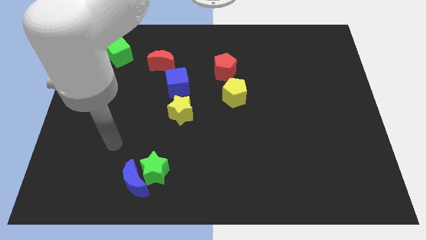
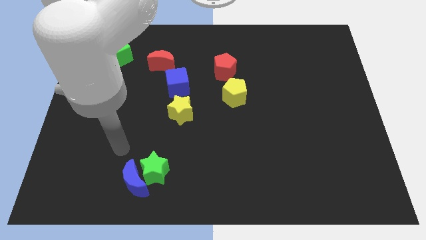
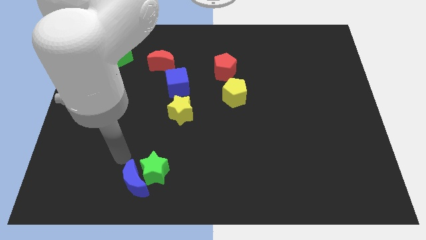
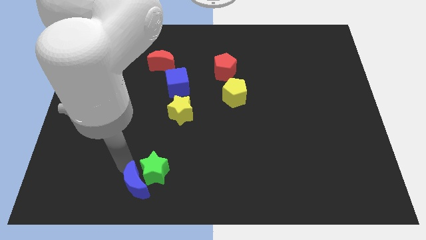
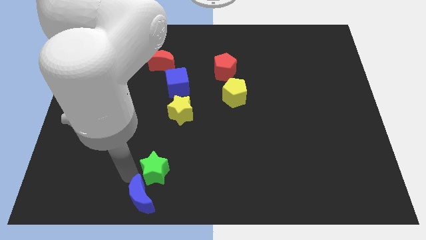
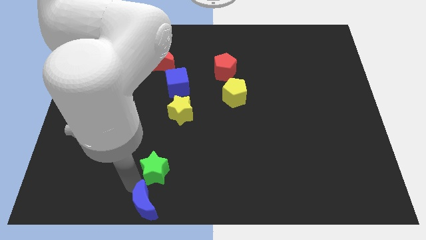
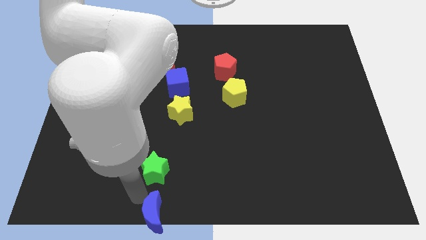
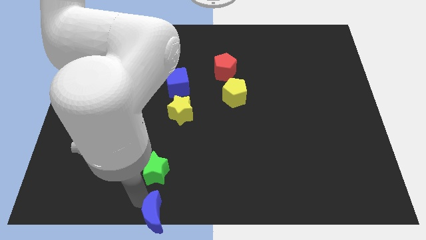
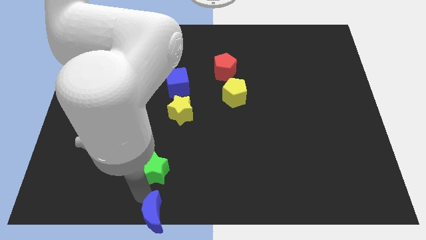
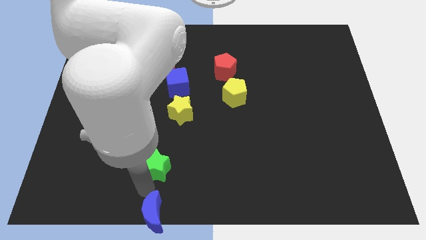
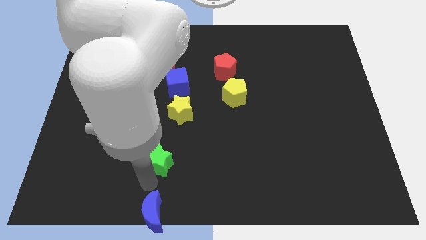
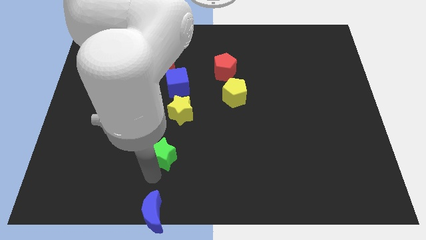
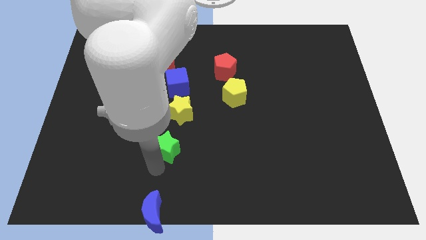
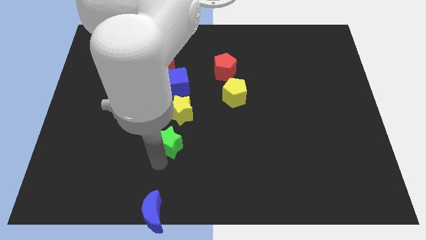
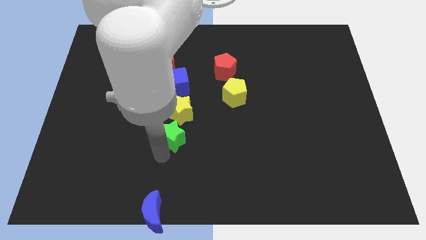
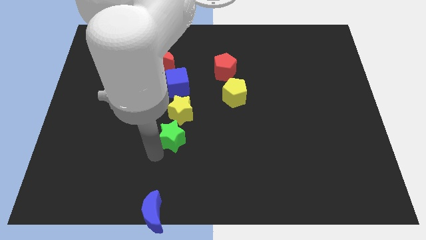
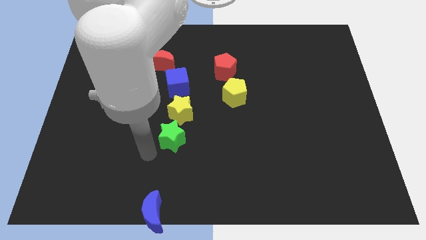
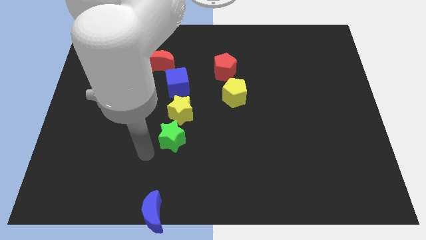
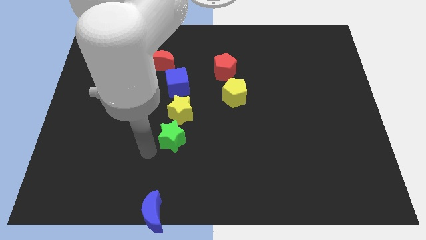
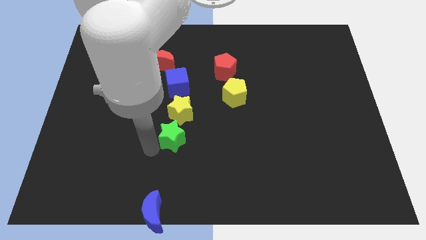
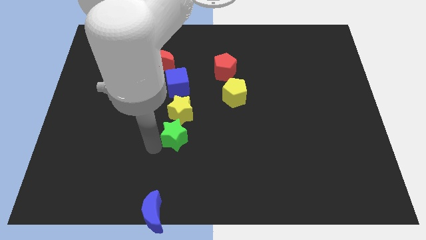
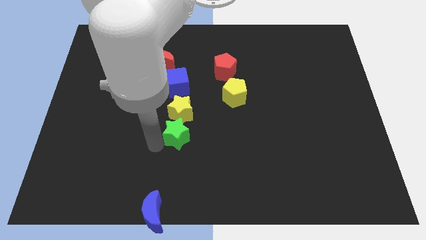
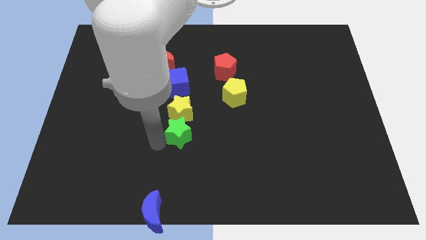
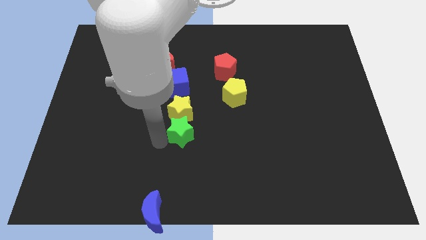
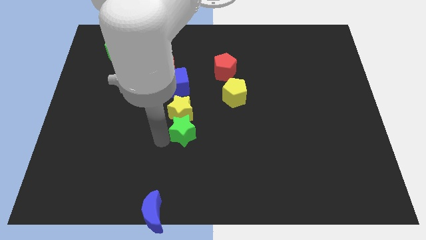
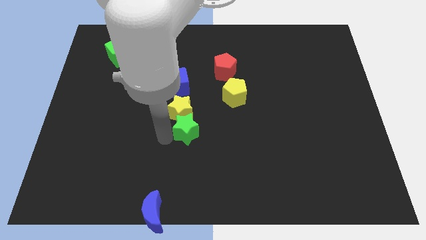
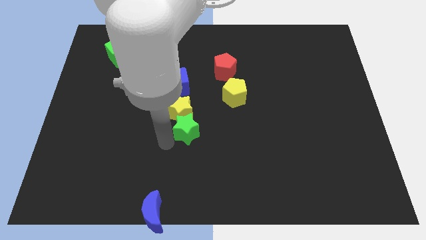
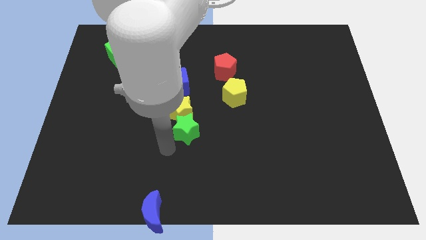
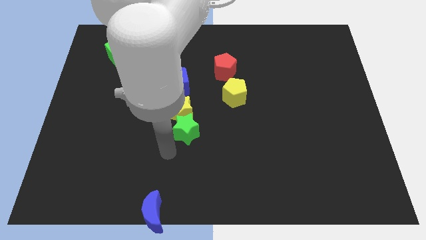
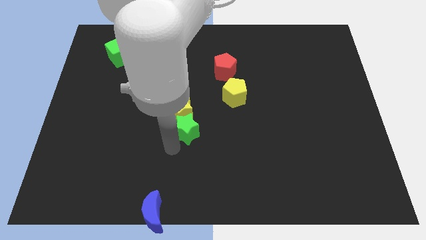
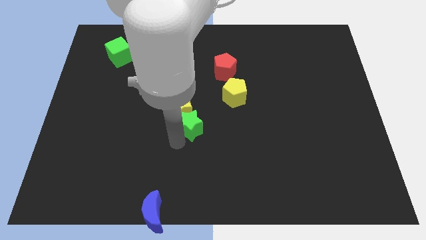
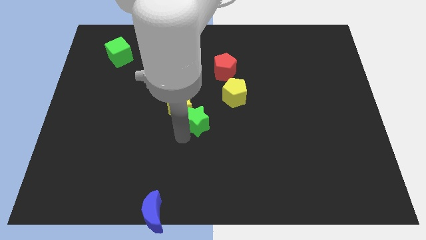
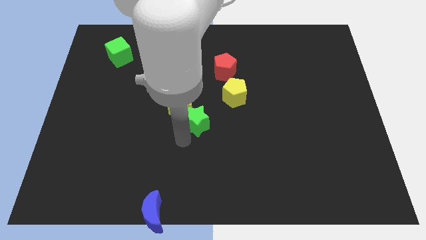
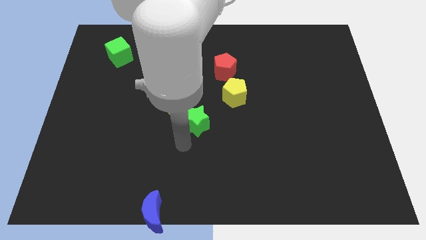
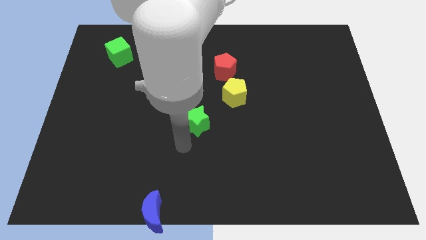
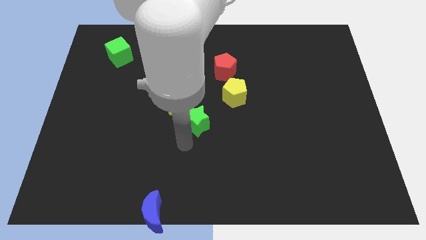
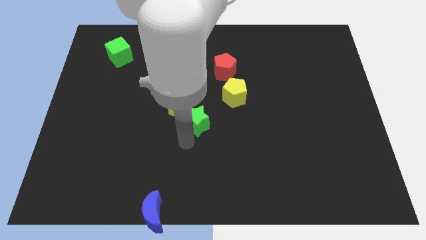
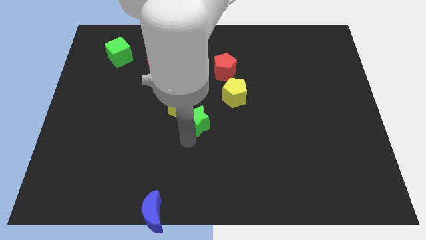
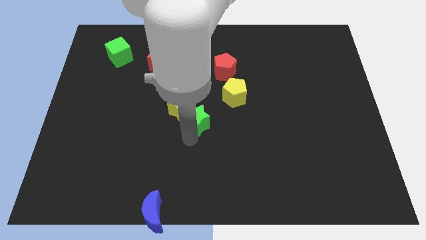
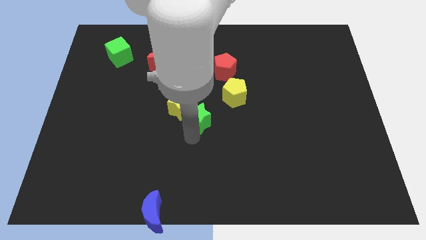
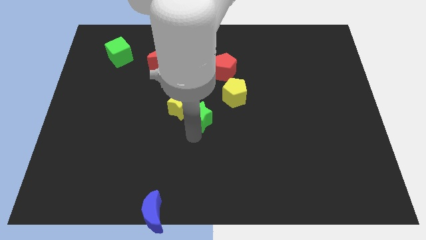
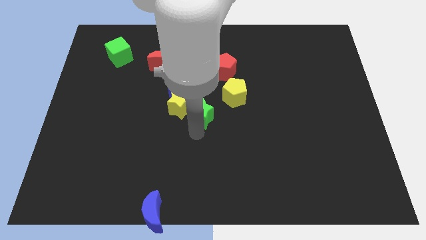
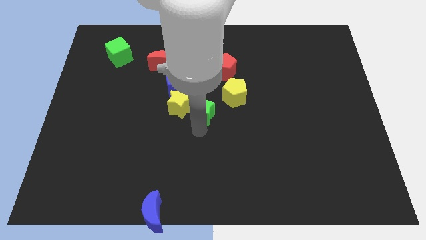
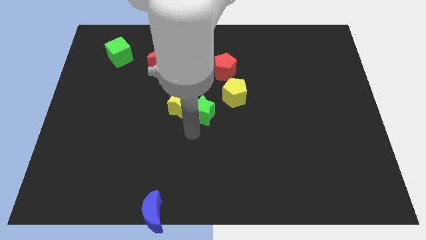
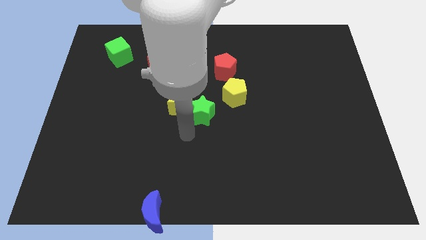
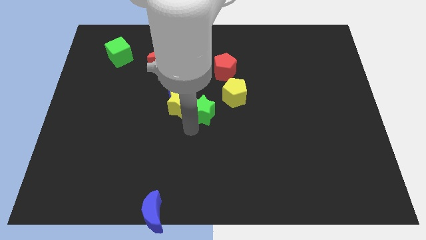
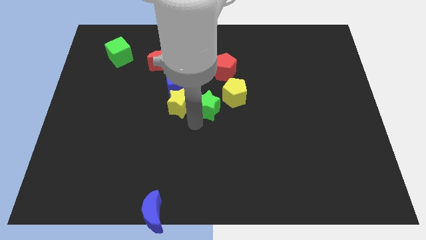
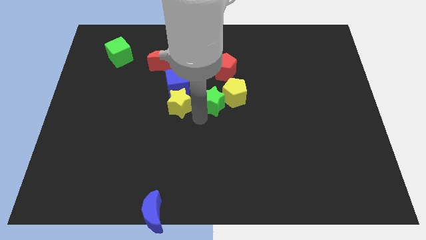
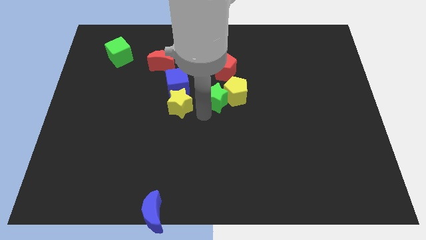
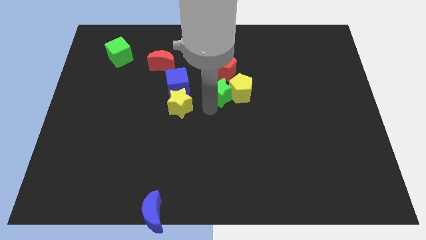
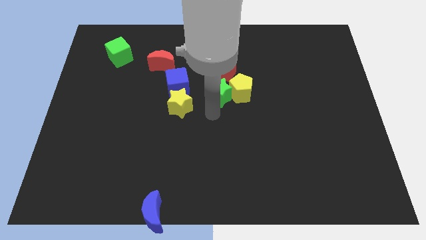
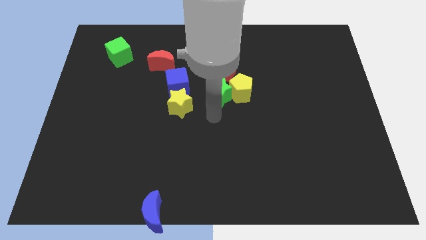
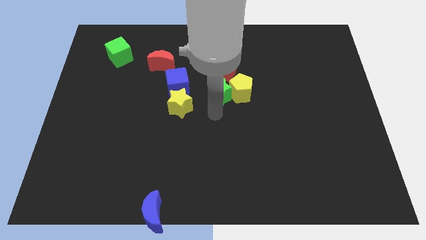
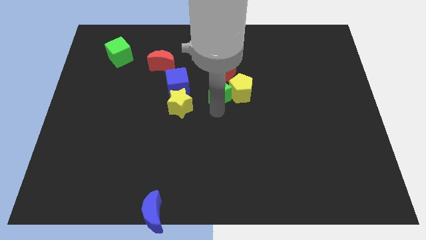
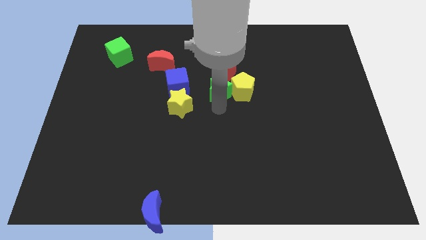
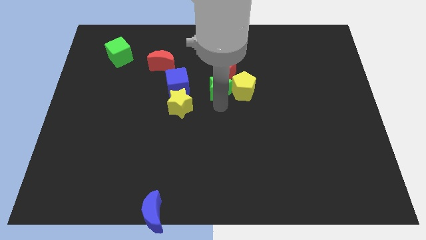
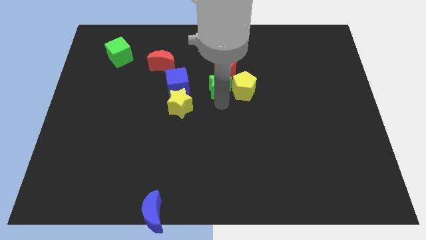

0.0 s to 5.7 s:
put the green star close to the red pentagon

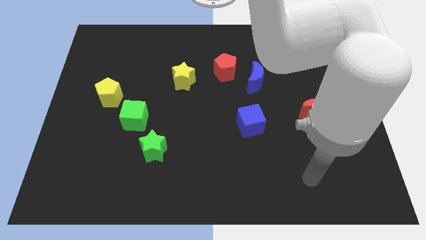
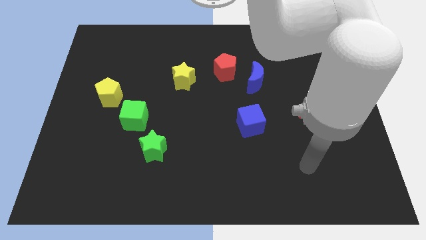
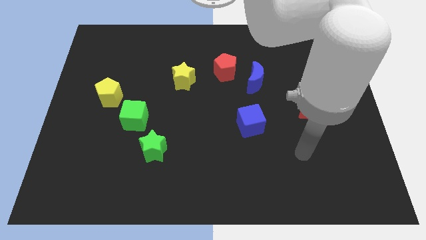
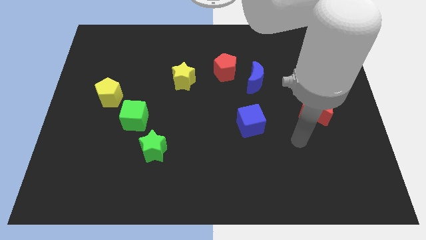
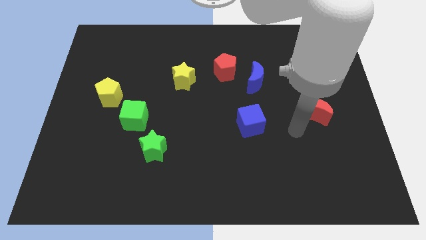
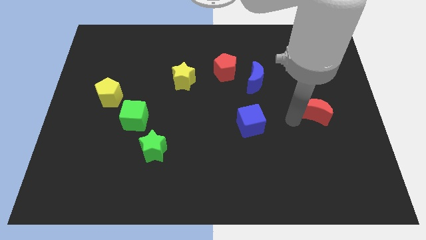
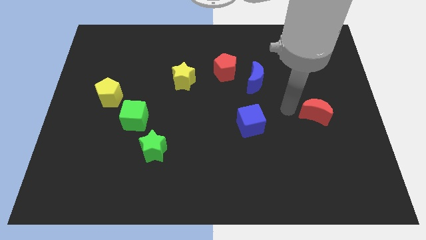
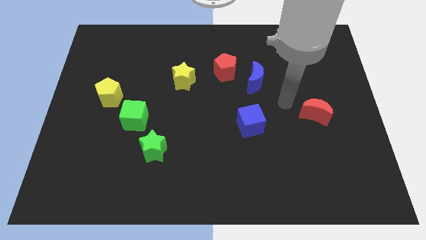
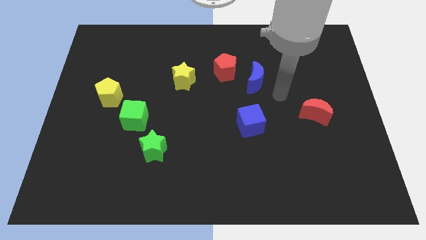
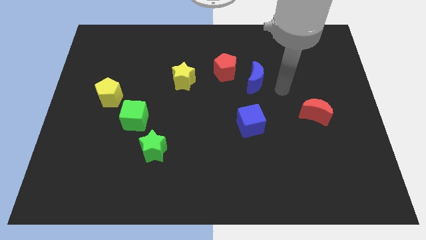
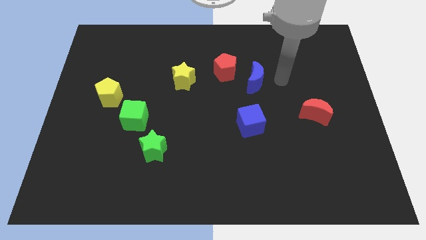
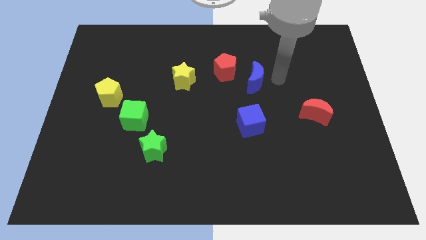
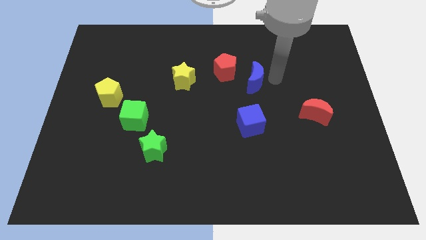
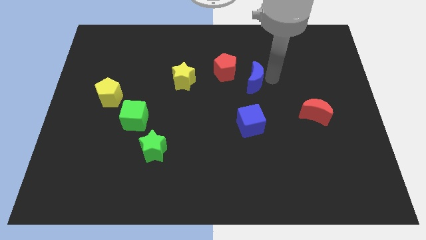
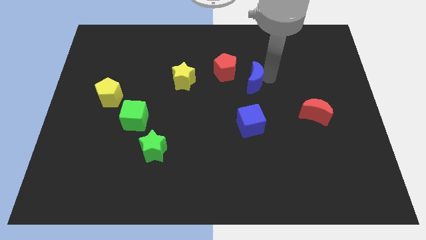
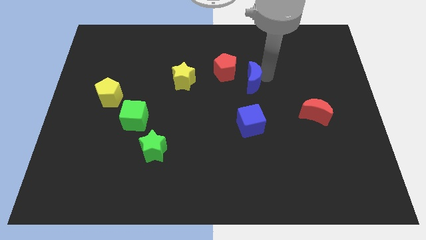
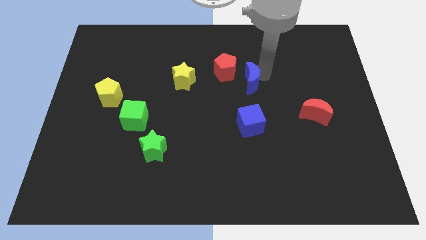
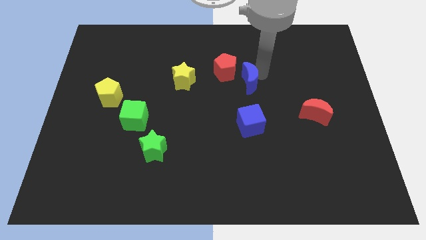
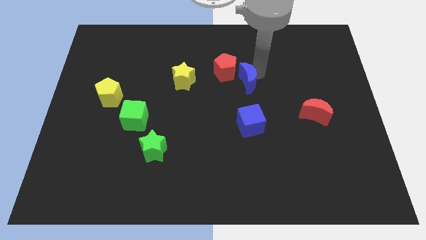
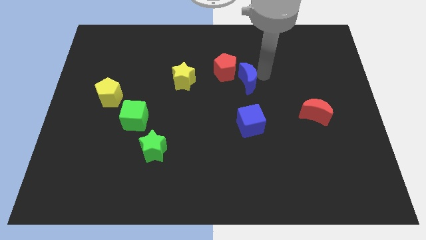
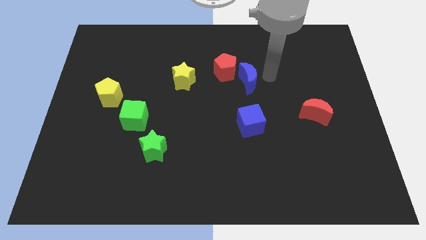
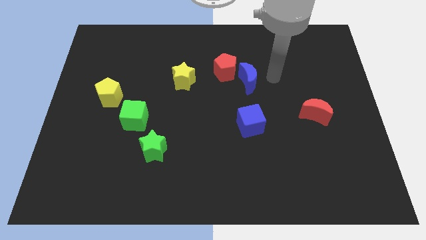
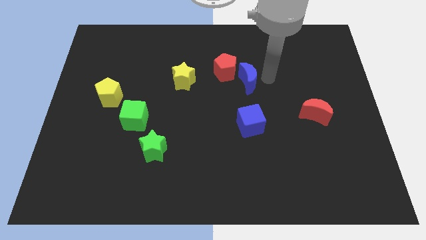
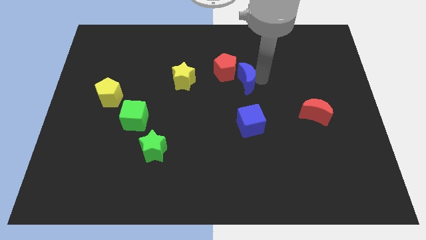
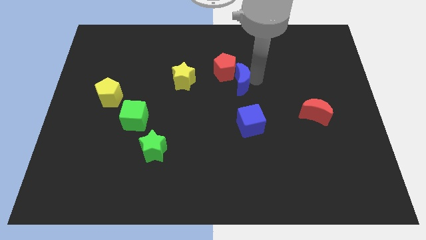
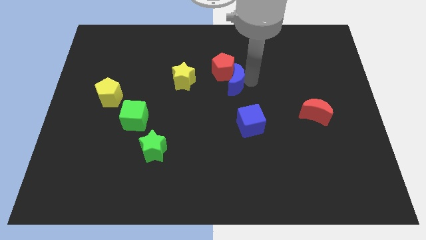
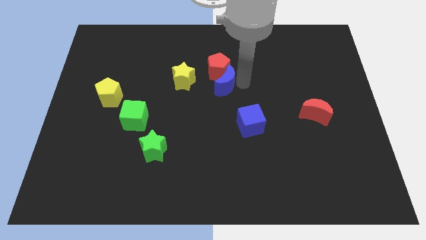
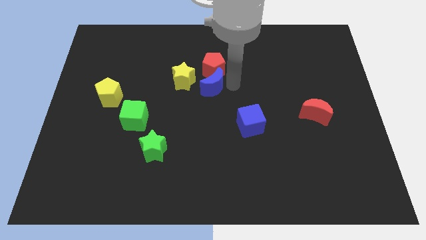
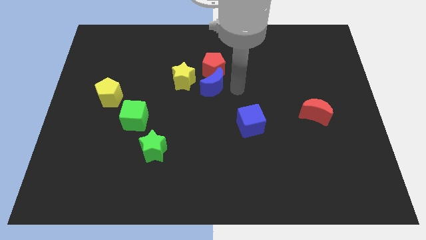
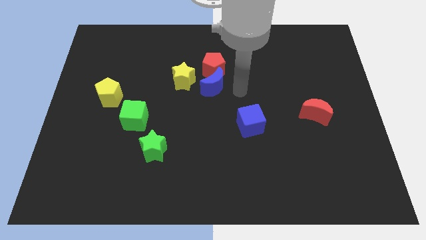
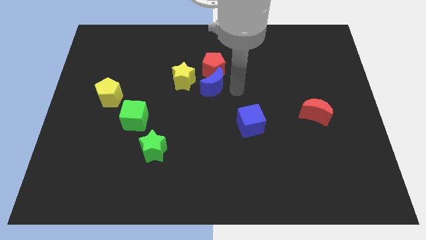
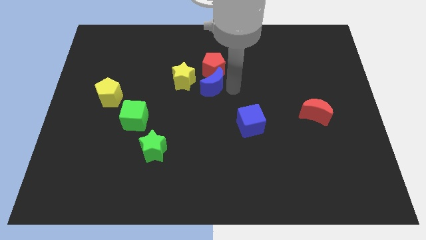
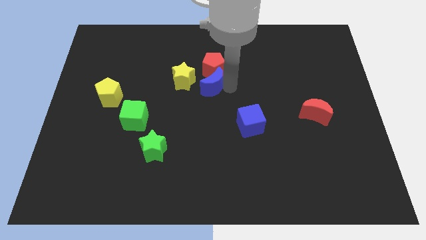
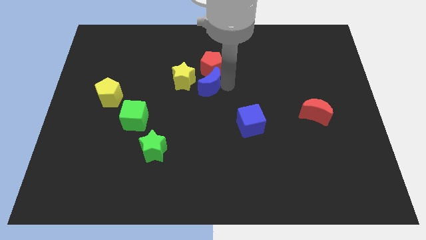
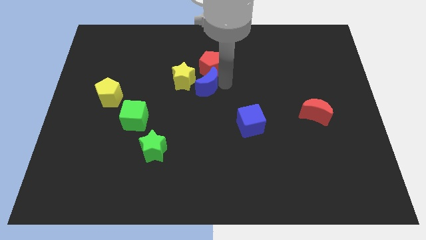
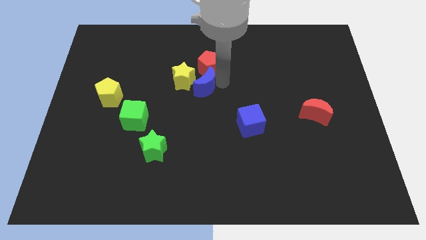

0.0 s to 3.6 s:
slide the blue moon next to the yellow star
